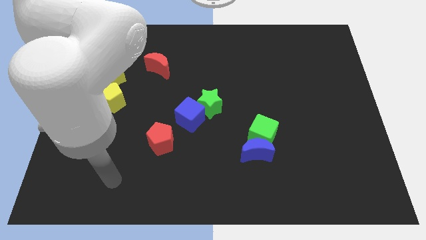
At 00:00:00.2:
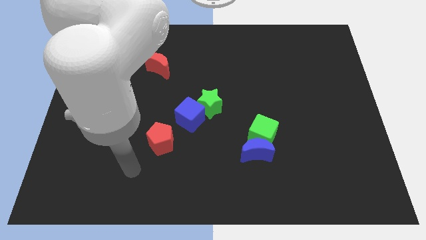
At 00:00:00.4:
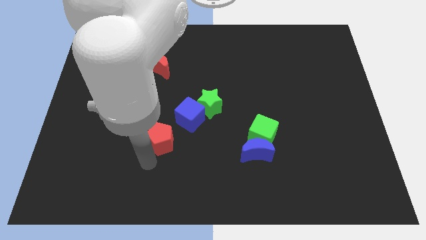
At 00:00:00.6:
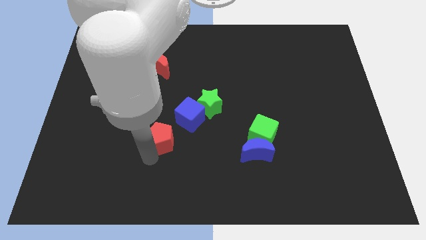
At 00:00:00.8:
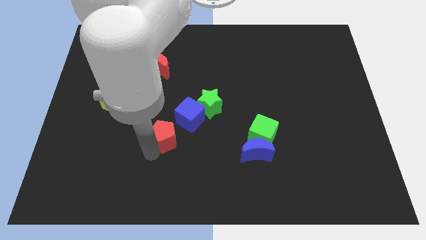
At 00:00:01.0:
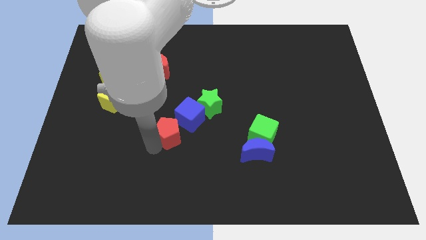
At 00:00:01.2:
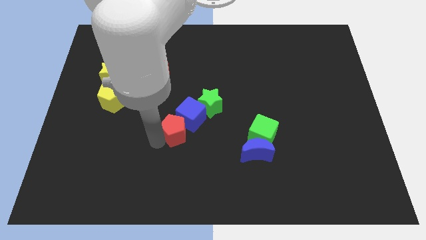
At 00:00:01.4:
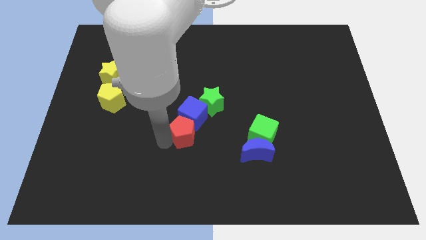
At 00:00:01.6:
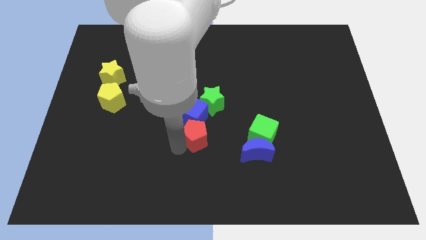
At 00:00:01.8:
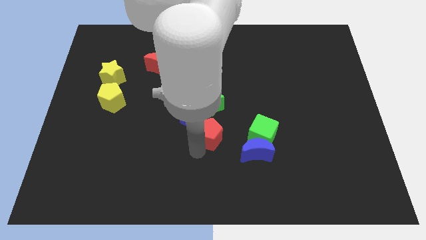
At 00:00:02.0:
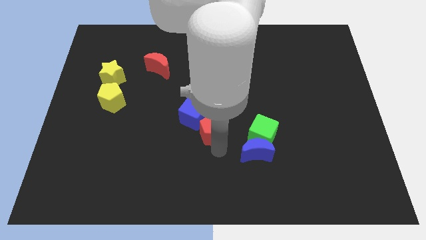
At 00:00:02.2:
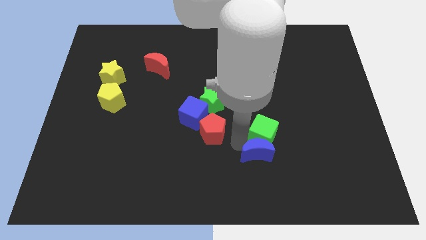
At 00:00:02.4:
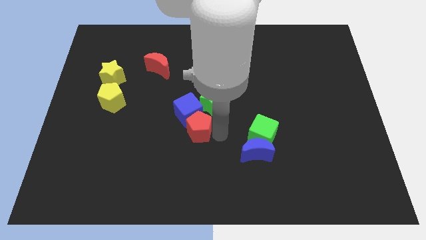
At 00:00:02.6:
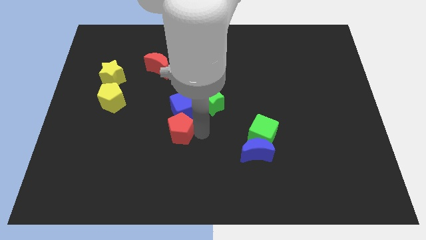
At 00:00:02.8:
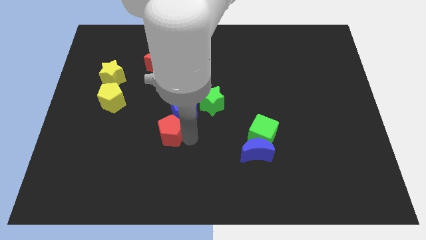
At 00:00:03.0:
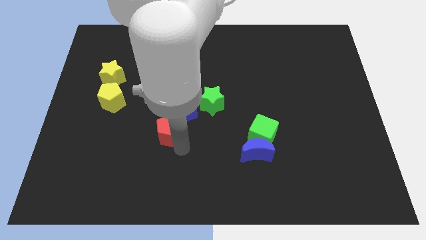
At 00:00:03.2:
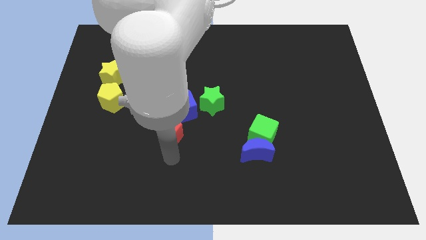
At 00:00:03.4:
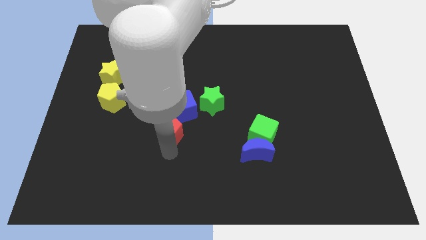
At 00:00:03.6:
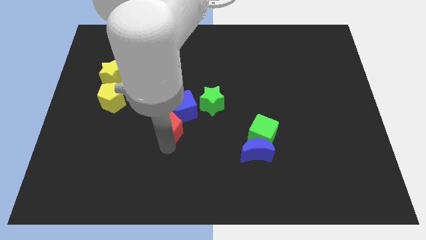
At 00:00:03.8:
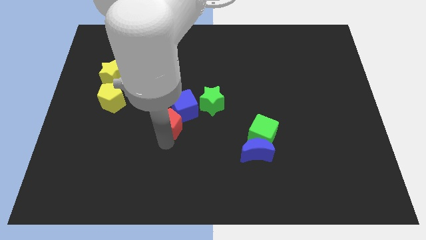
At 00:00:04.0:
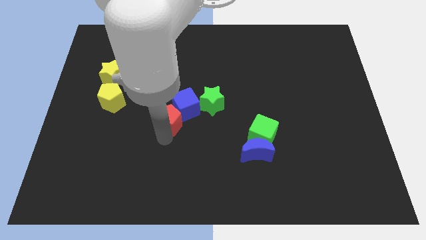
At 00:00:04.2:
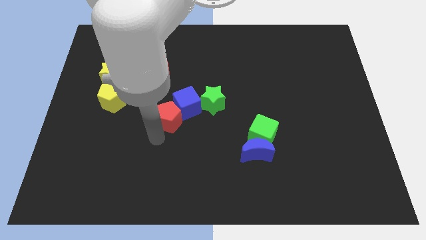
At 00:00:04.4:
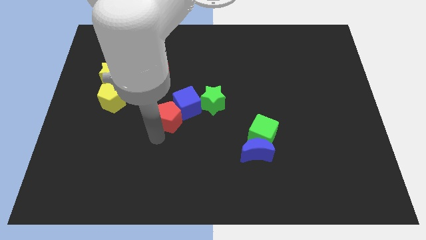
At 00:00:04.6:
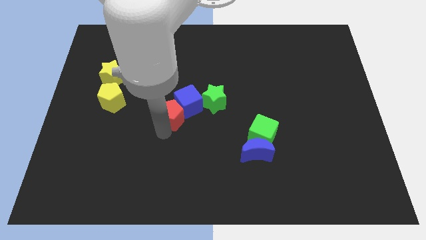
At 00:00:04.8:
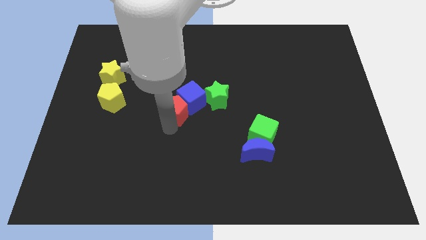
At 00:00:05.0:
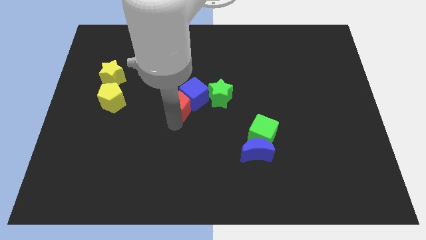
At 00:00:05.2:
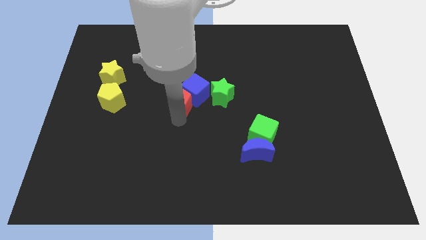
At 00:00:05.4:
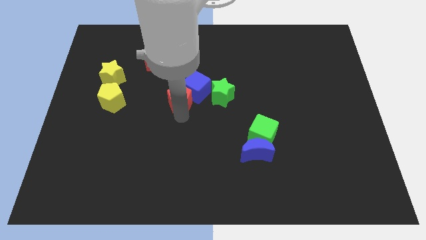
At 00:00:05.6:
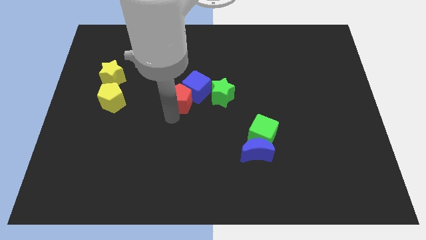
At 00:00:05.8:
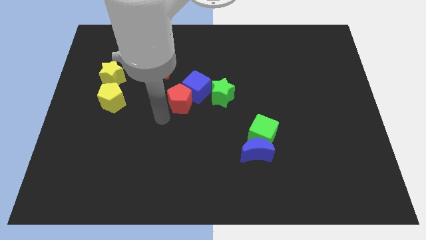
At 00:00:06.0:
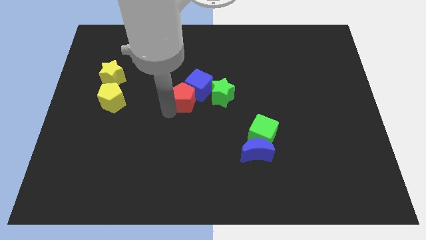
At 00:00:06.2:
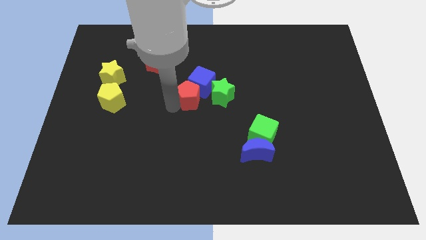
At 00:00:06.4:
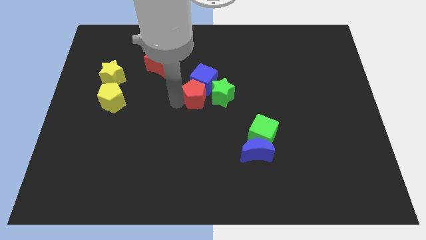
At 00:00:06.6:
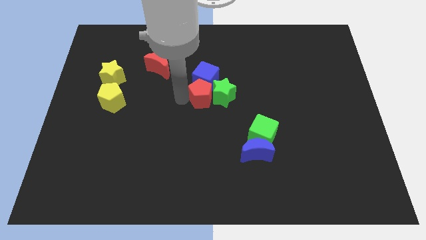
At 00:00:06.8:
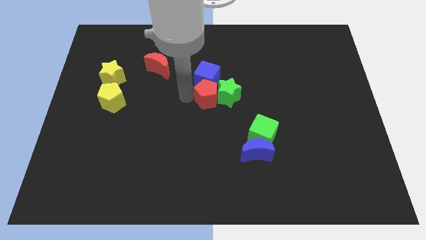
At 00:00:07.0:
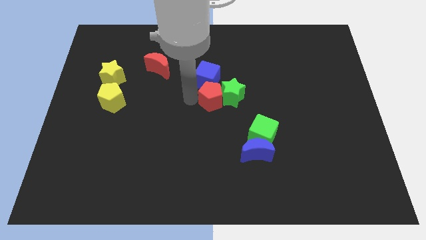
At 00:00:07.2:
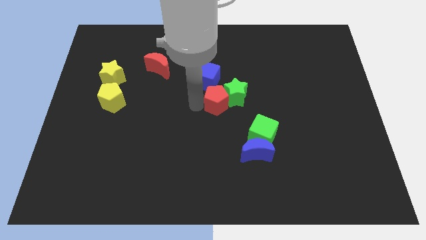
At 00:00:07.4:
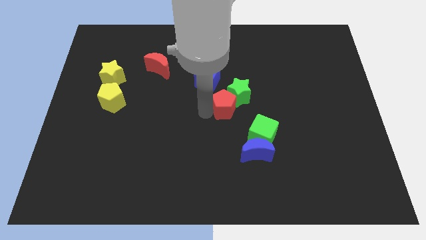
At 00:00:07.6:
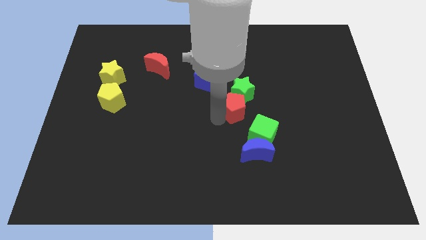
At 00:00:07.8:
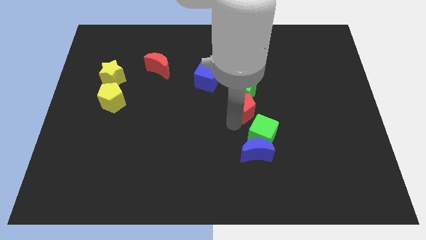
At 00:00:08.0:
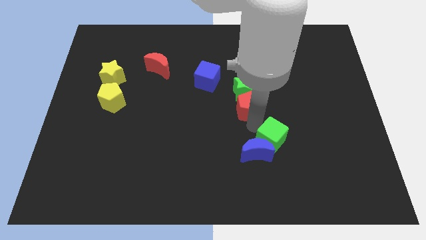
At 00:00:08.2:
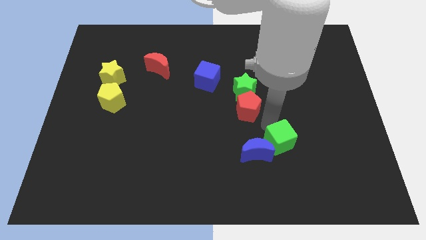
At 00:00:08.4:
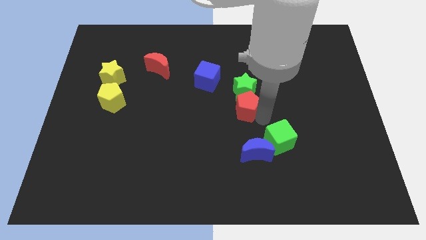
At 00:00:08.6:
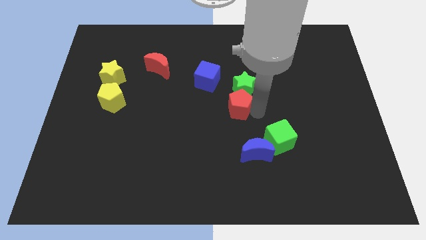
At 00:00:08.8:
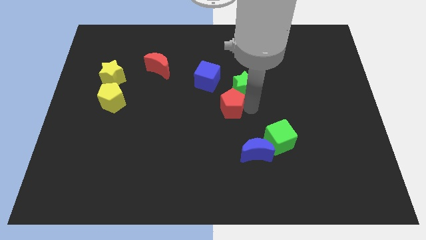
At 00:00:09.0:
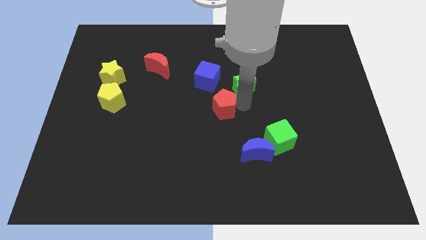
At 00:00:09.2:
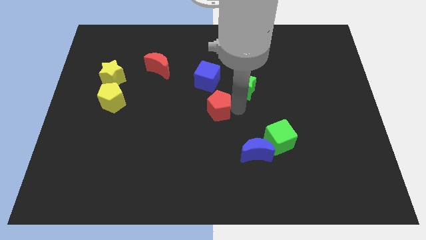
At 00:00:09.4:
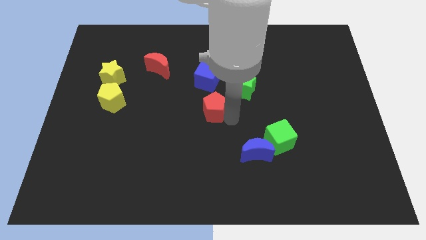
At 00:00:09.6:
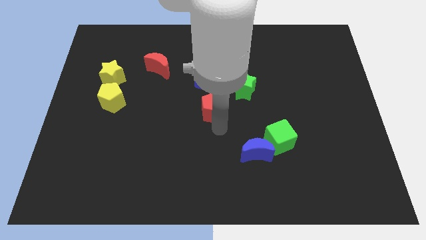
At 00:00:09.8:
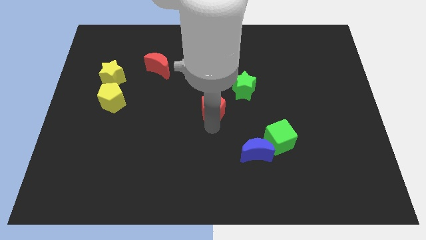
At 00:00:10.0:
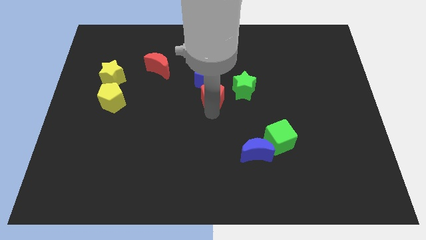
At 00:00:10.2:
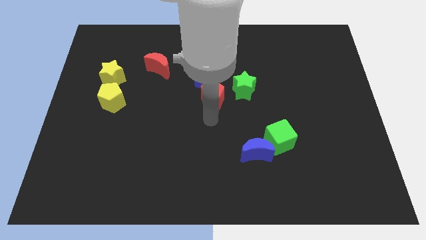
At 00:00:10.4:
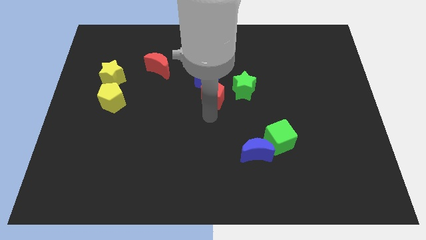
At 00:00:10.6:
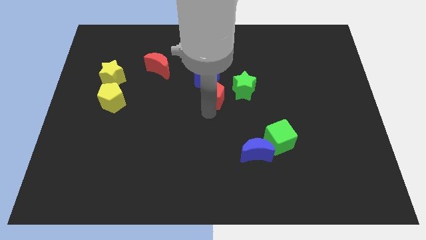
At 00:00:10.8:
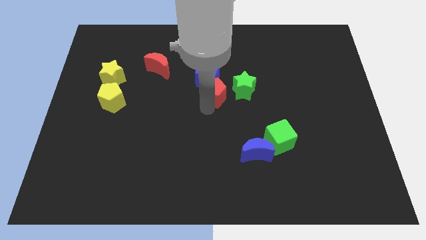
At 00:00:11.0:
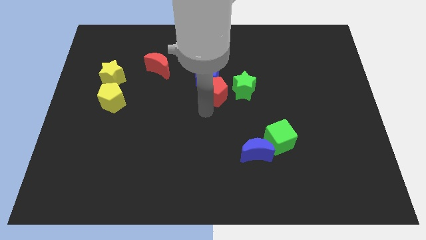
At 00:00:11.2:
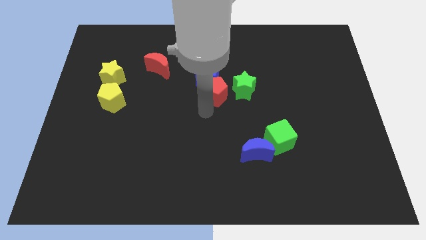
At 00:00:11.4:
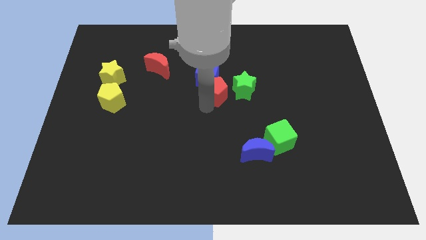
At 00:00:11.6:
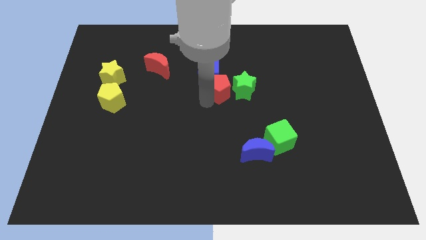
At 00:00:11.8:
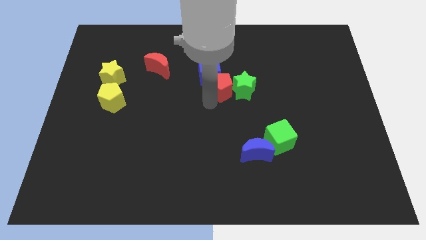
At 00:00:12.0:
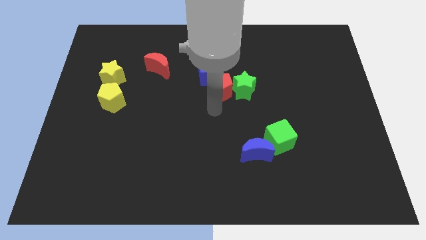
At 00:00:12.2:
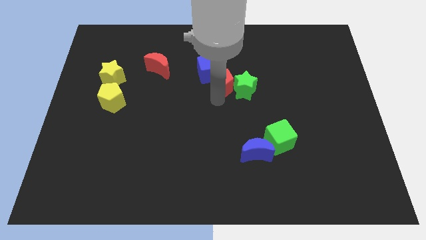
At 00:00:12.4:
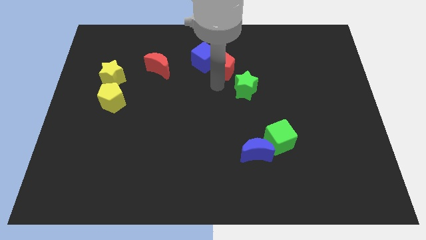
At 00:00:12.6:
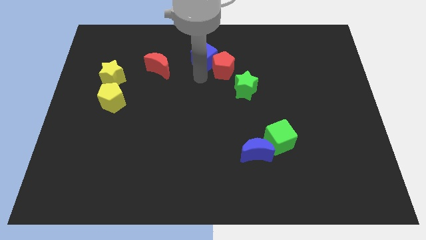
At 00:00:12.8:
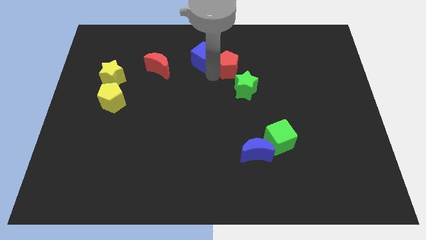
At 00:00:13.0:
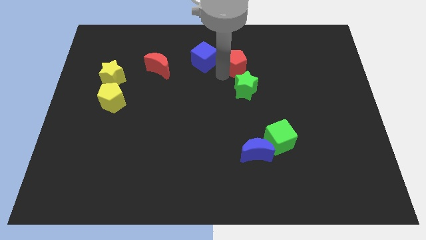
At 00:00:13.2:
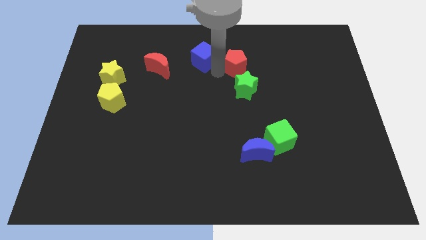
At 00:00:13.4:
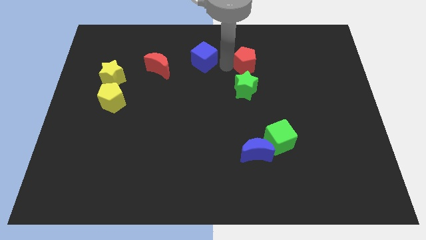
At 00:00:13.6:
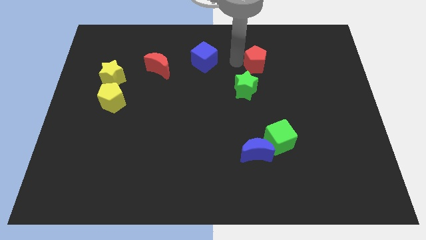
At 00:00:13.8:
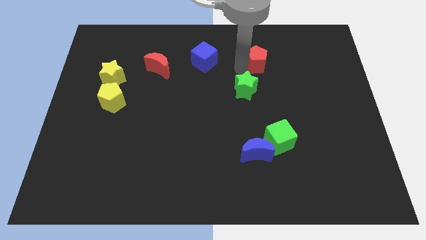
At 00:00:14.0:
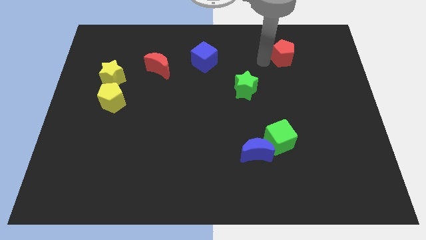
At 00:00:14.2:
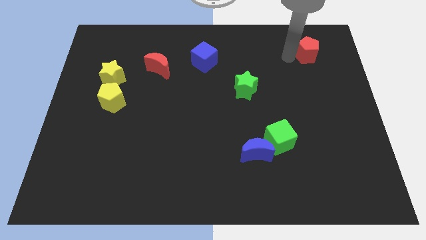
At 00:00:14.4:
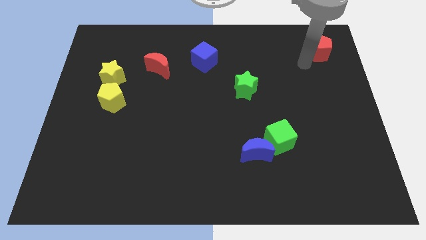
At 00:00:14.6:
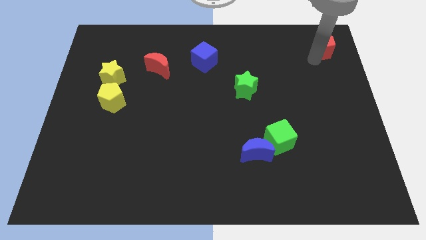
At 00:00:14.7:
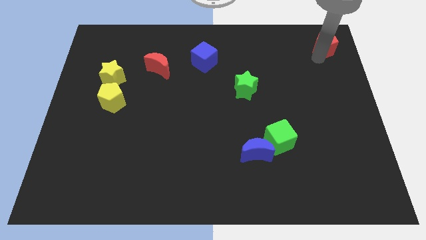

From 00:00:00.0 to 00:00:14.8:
push the red pentagon to the top right corner
